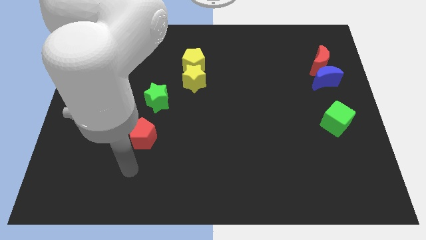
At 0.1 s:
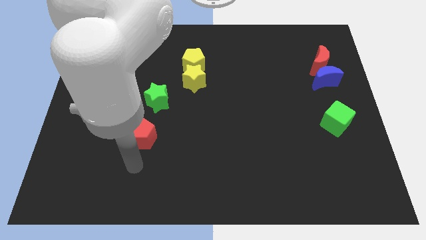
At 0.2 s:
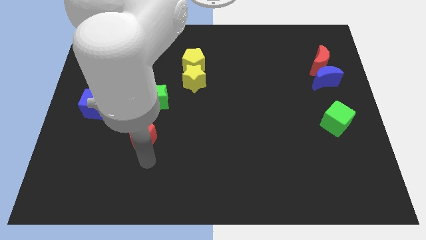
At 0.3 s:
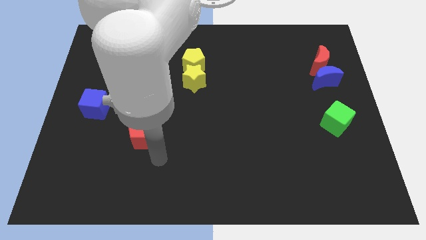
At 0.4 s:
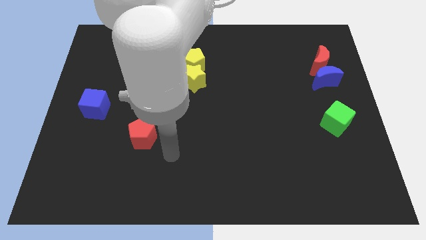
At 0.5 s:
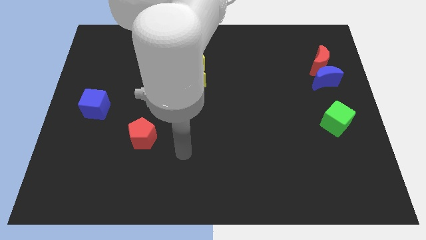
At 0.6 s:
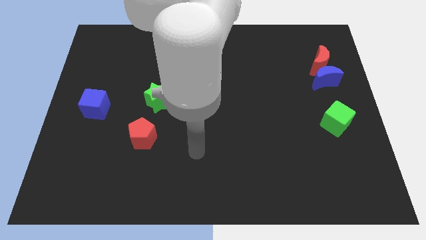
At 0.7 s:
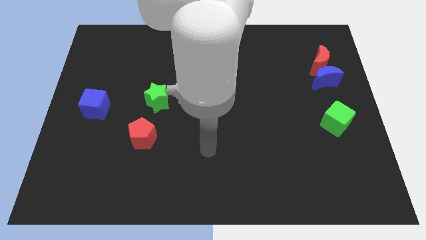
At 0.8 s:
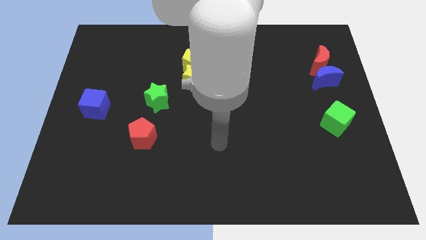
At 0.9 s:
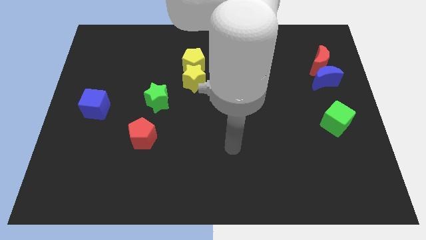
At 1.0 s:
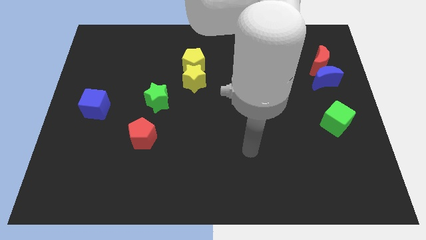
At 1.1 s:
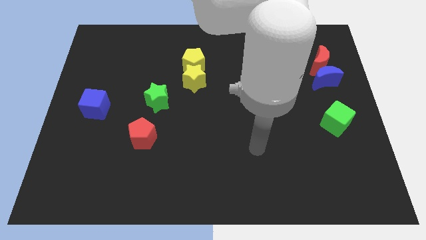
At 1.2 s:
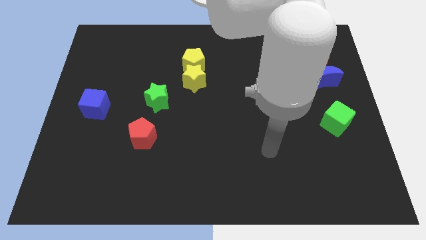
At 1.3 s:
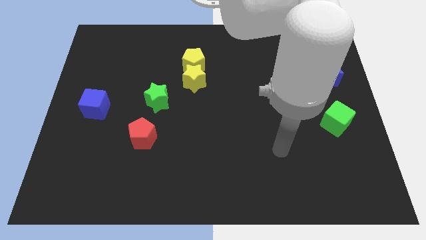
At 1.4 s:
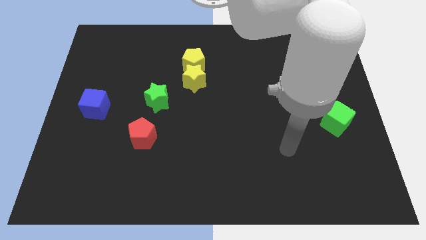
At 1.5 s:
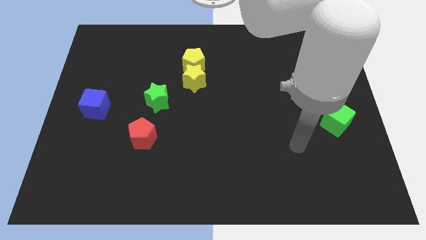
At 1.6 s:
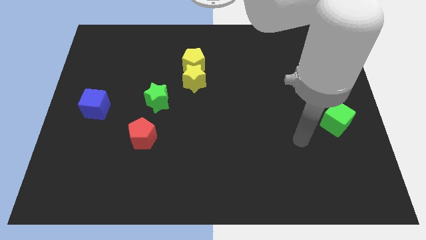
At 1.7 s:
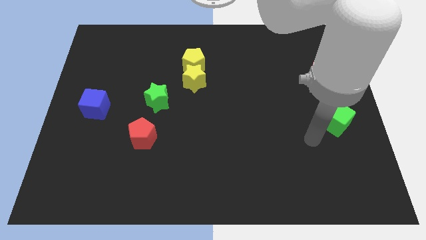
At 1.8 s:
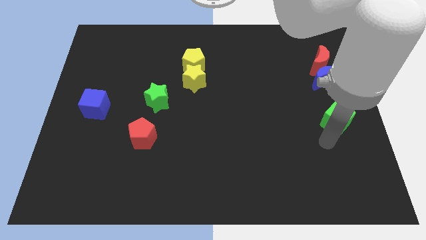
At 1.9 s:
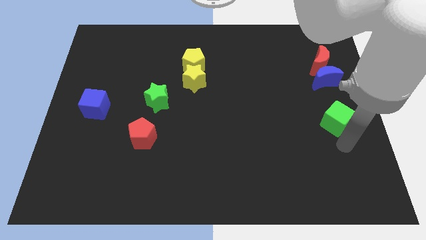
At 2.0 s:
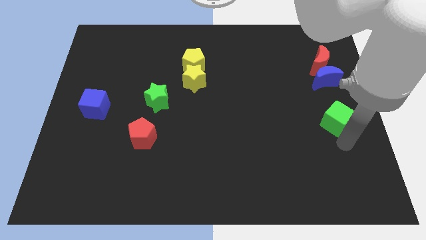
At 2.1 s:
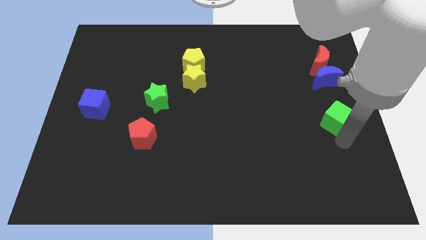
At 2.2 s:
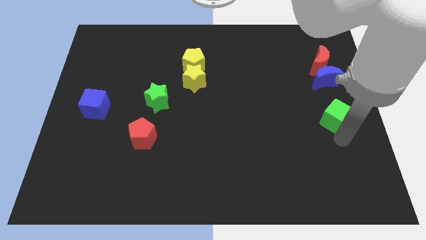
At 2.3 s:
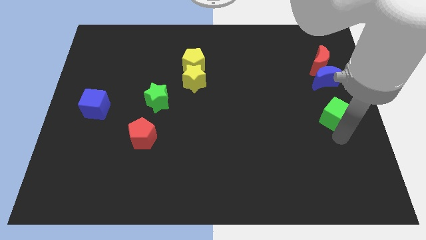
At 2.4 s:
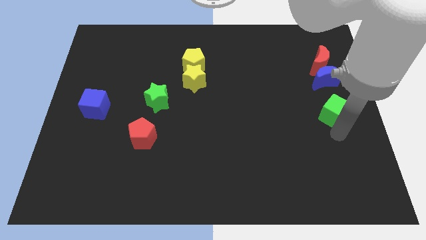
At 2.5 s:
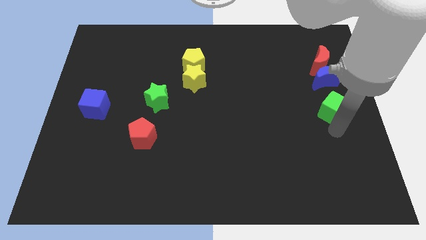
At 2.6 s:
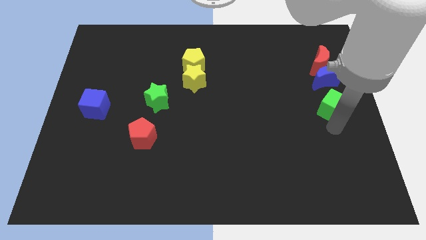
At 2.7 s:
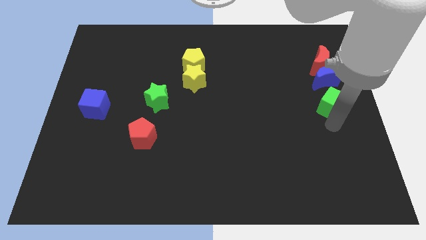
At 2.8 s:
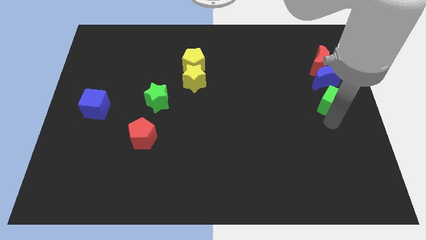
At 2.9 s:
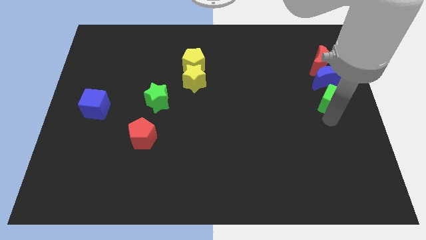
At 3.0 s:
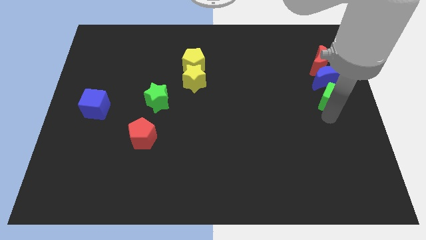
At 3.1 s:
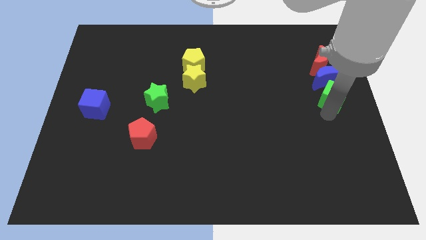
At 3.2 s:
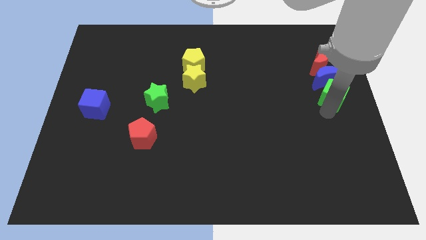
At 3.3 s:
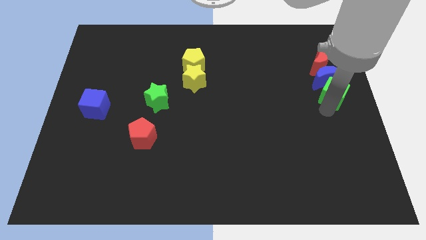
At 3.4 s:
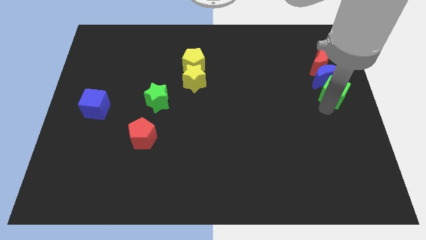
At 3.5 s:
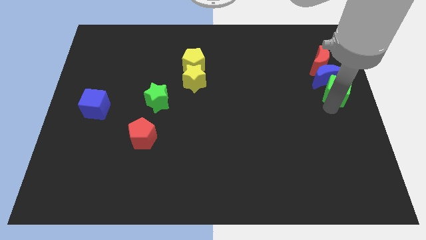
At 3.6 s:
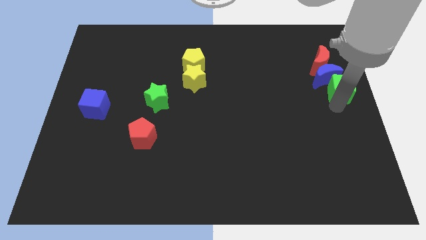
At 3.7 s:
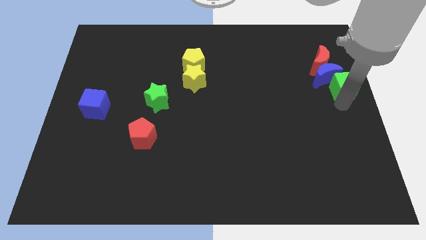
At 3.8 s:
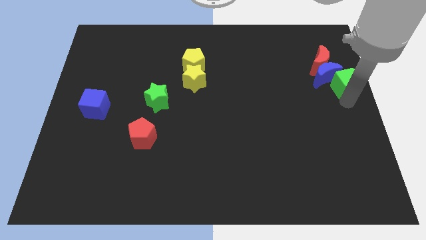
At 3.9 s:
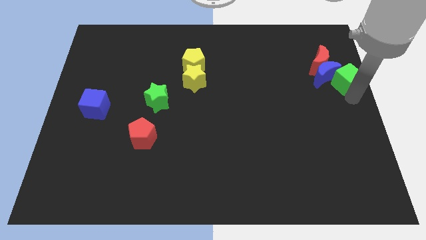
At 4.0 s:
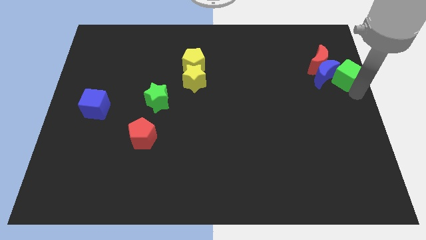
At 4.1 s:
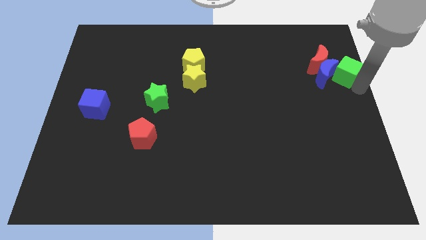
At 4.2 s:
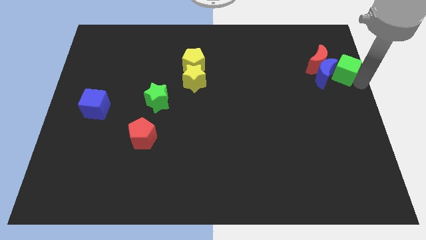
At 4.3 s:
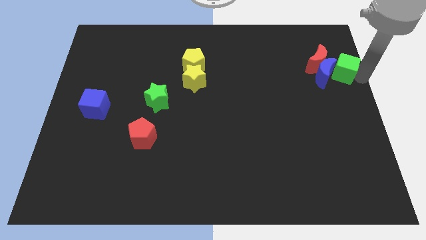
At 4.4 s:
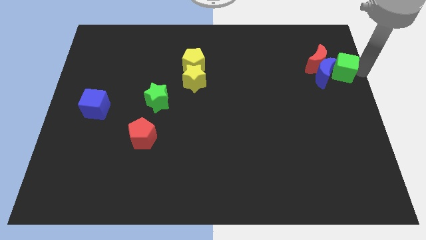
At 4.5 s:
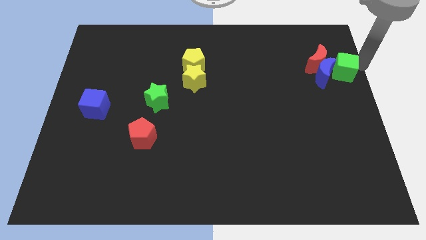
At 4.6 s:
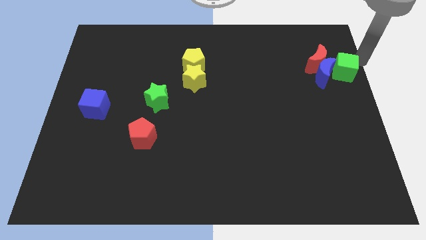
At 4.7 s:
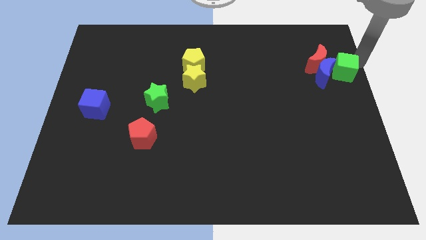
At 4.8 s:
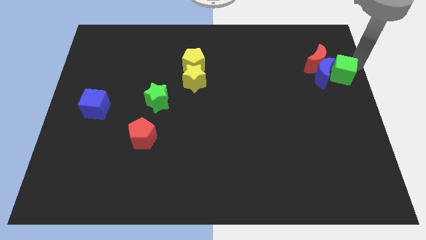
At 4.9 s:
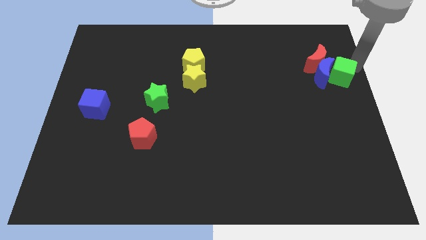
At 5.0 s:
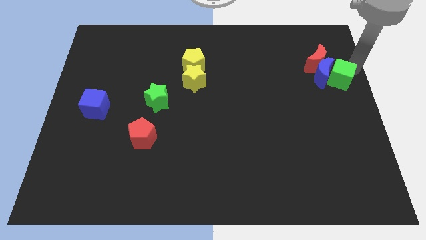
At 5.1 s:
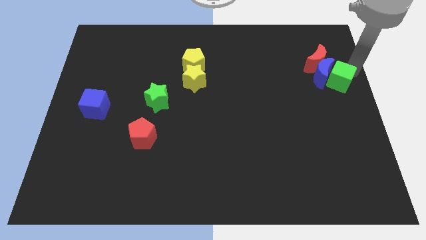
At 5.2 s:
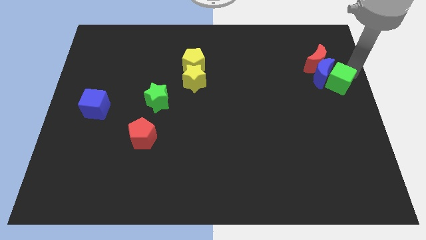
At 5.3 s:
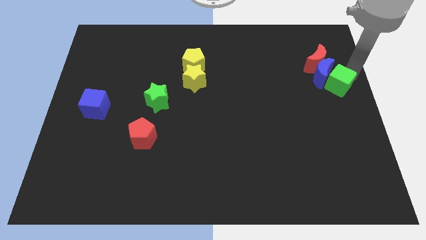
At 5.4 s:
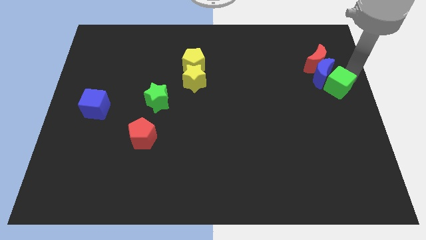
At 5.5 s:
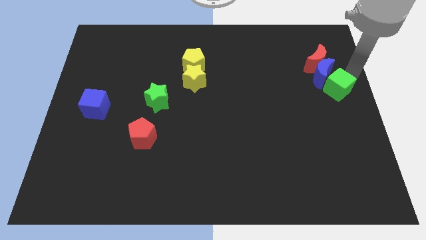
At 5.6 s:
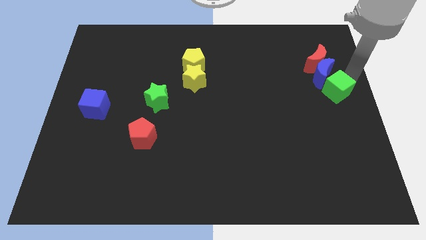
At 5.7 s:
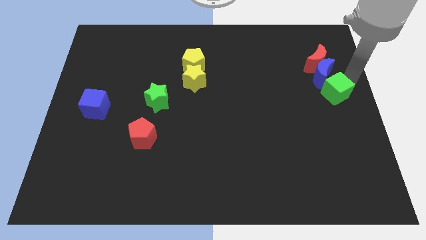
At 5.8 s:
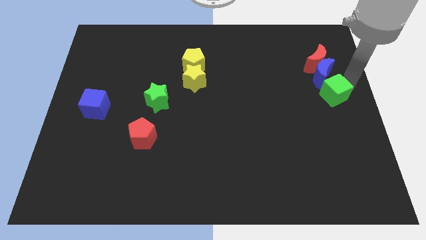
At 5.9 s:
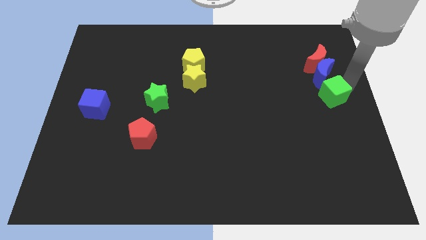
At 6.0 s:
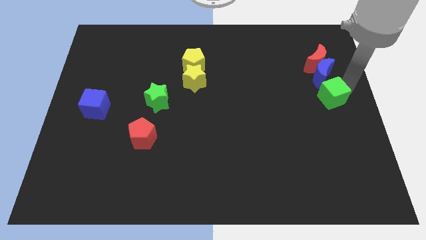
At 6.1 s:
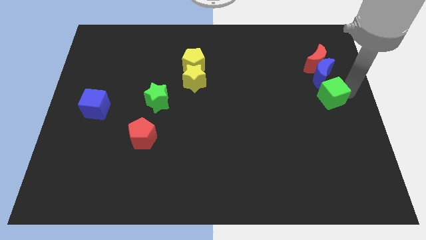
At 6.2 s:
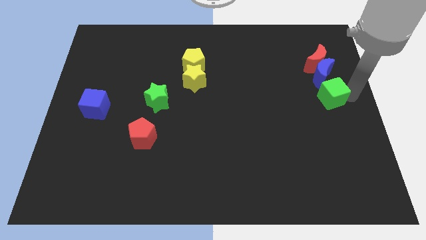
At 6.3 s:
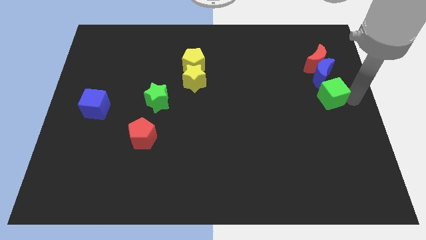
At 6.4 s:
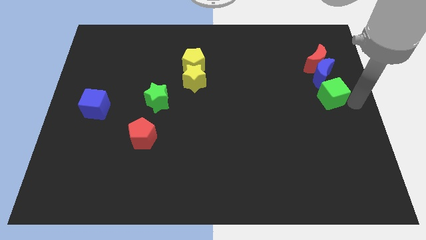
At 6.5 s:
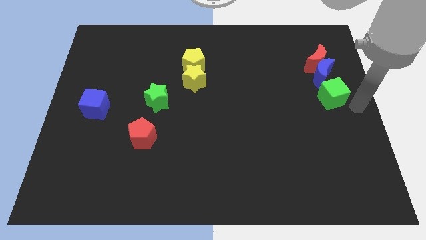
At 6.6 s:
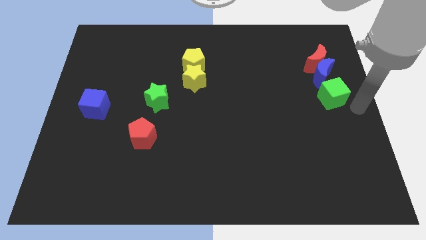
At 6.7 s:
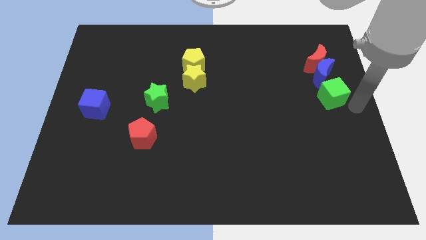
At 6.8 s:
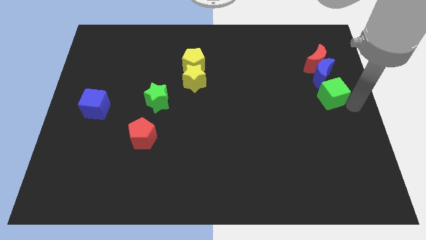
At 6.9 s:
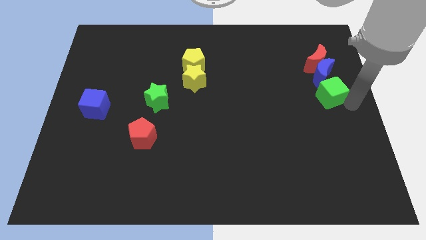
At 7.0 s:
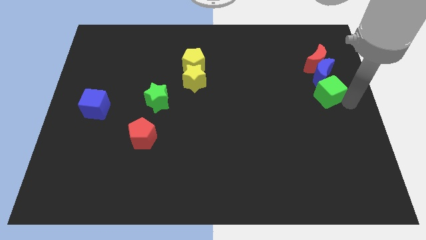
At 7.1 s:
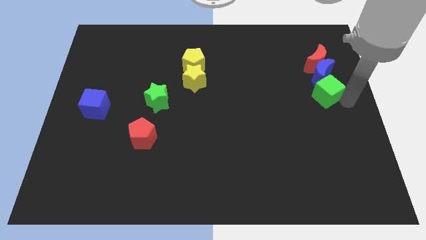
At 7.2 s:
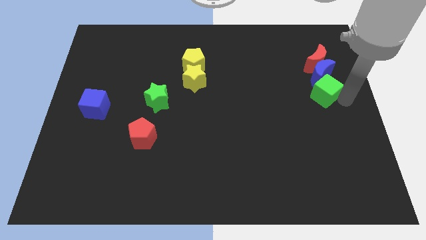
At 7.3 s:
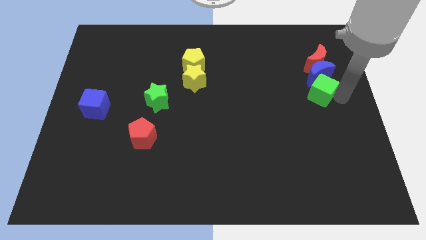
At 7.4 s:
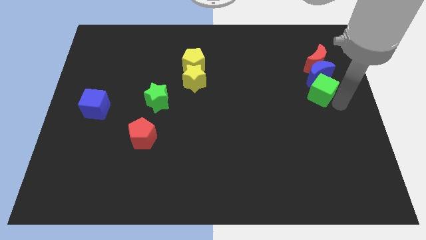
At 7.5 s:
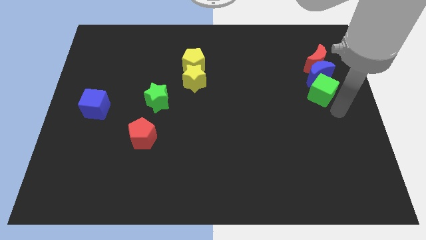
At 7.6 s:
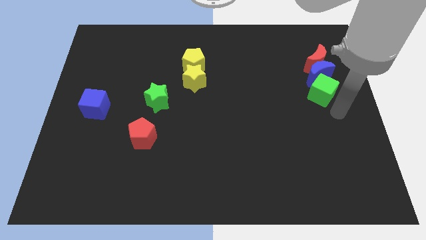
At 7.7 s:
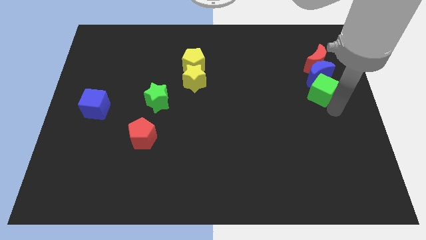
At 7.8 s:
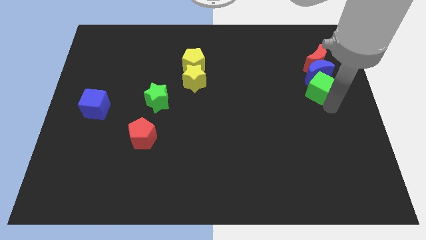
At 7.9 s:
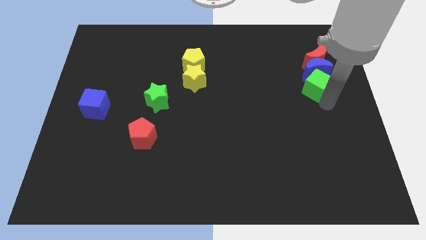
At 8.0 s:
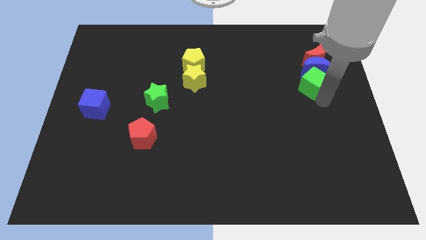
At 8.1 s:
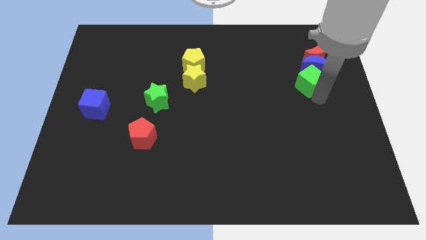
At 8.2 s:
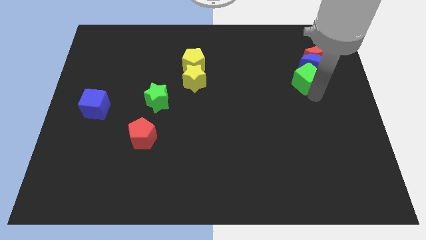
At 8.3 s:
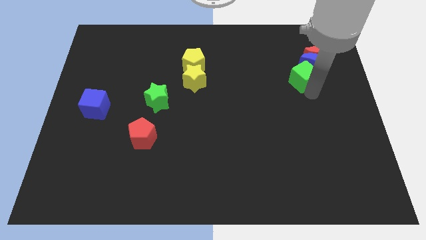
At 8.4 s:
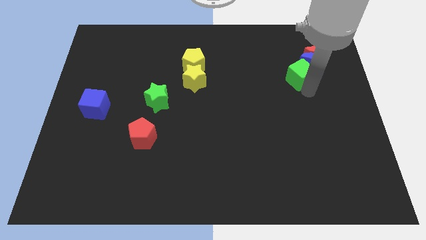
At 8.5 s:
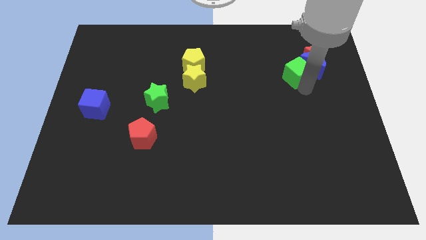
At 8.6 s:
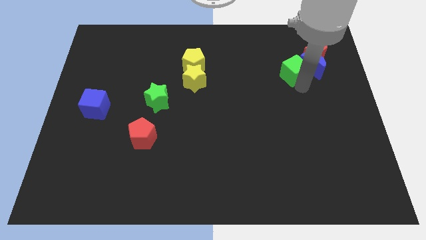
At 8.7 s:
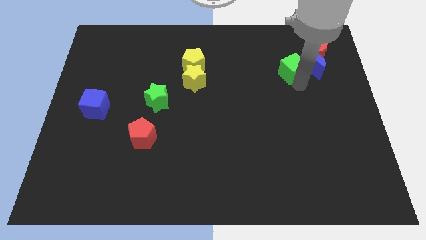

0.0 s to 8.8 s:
move the green cube to the top left of the blue moon
